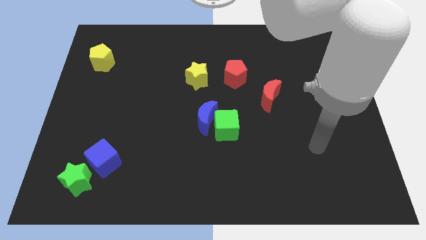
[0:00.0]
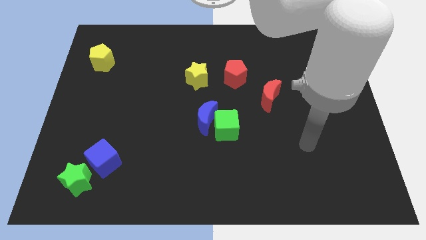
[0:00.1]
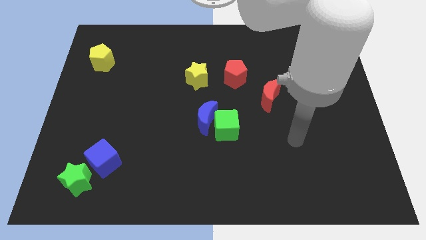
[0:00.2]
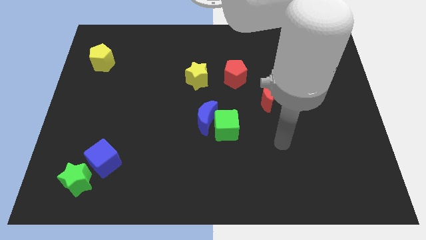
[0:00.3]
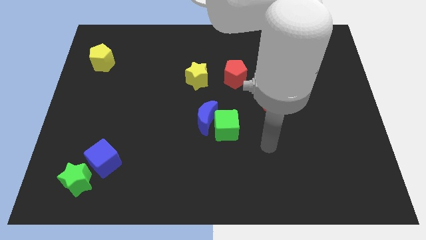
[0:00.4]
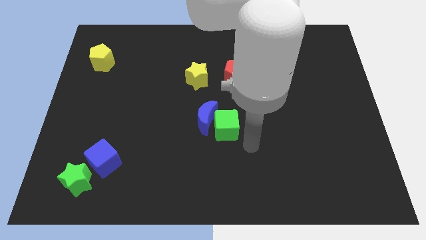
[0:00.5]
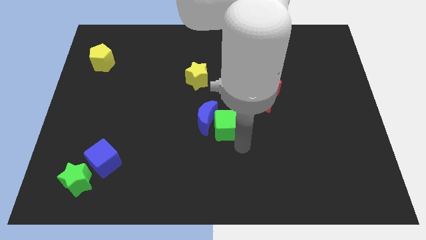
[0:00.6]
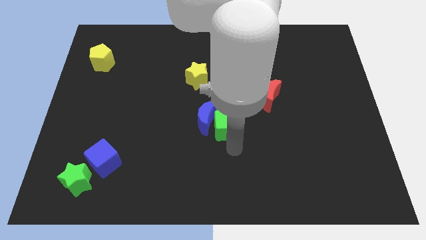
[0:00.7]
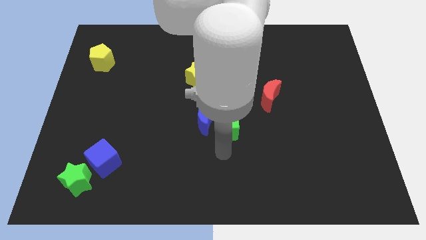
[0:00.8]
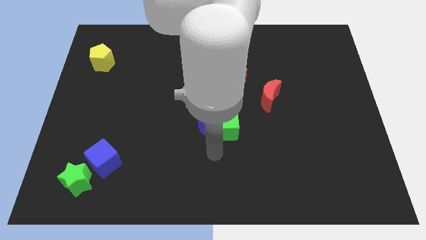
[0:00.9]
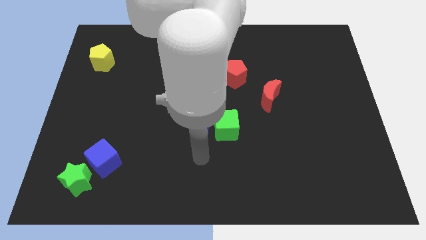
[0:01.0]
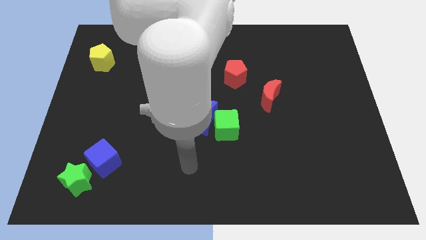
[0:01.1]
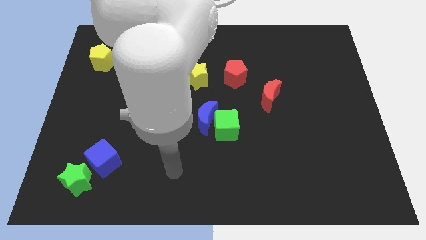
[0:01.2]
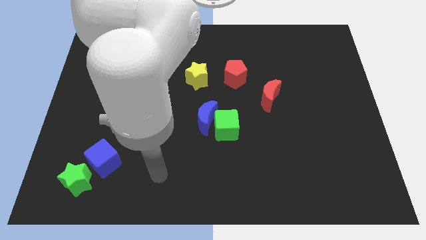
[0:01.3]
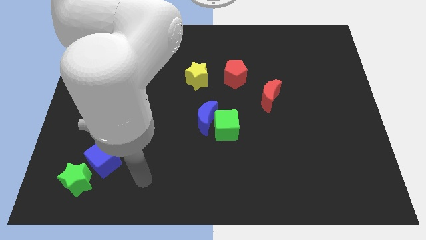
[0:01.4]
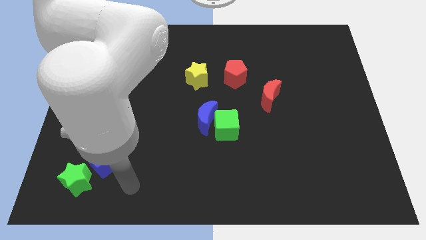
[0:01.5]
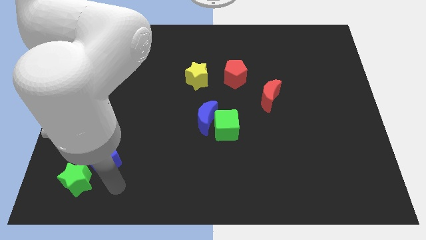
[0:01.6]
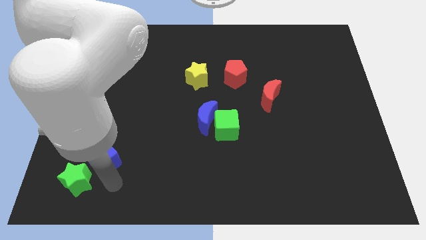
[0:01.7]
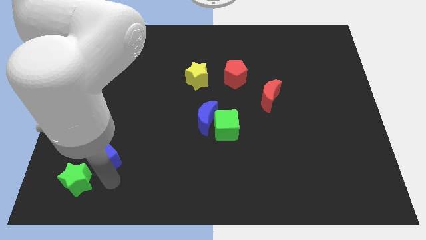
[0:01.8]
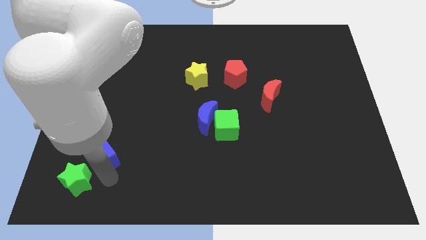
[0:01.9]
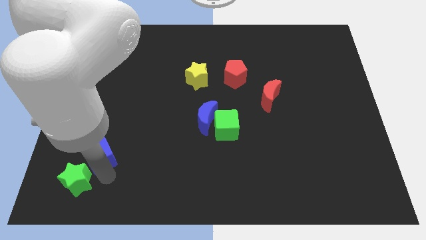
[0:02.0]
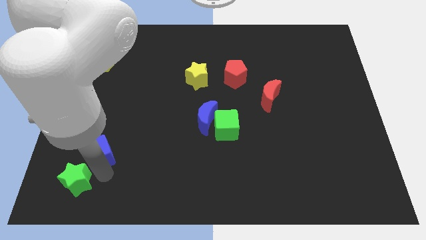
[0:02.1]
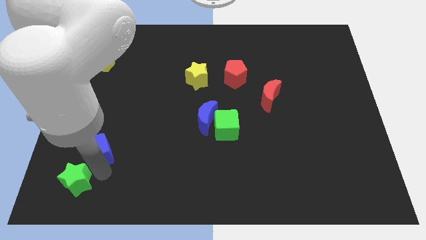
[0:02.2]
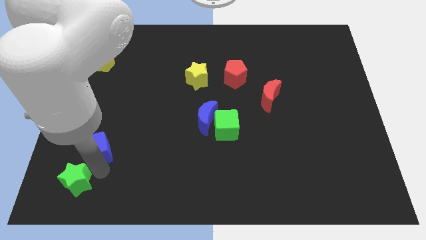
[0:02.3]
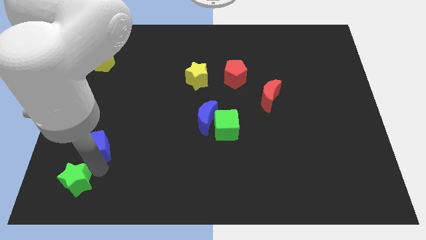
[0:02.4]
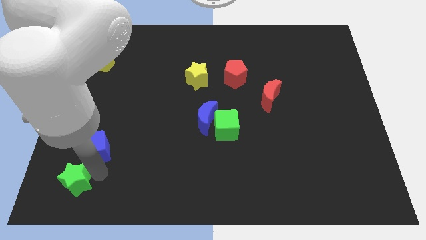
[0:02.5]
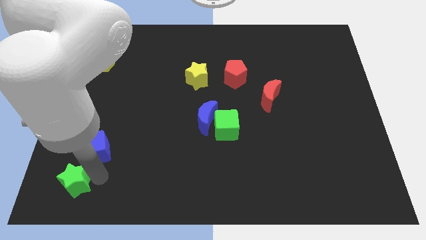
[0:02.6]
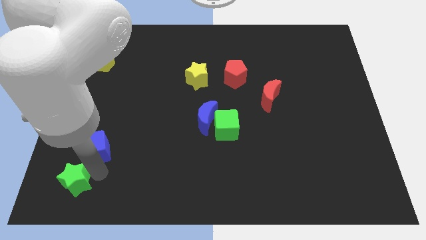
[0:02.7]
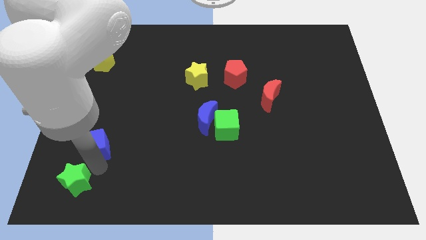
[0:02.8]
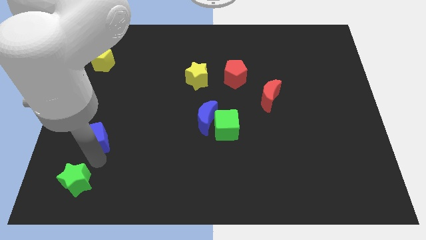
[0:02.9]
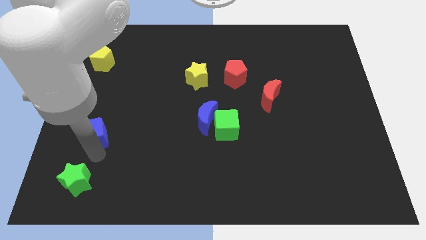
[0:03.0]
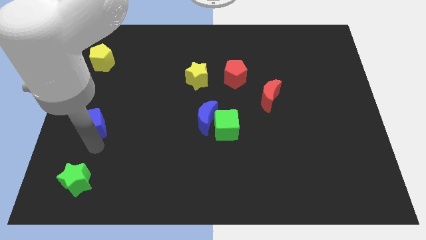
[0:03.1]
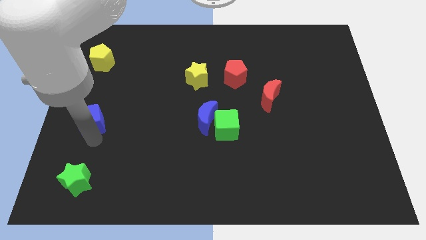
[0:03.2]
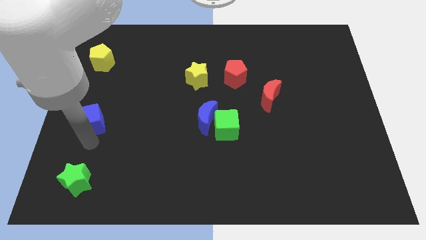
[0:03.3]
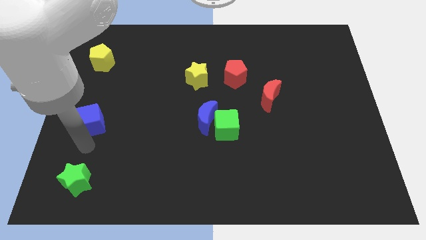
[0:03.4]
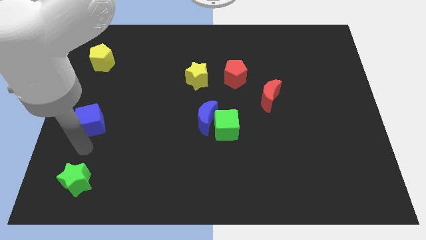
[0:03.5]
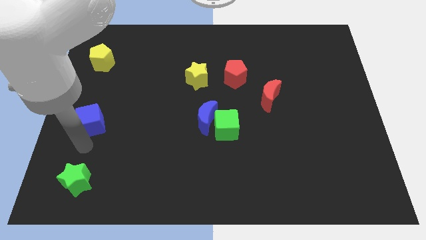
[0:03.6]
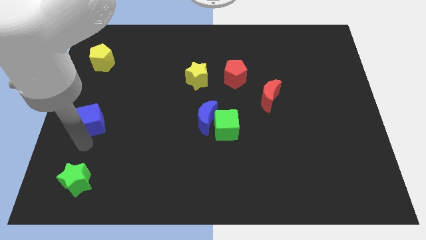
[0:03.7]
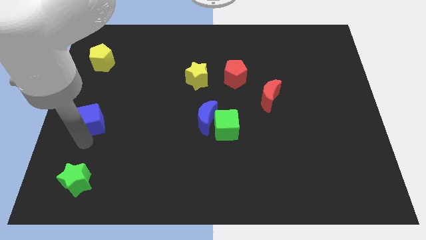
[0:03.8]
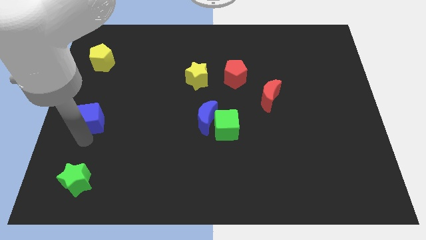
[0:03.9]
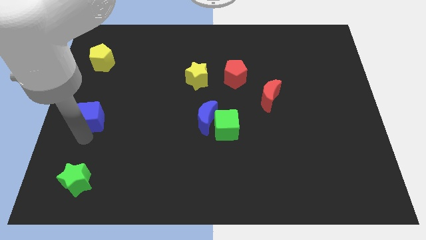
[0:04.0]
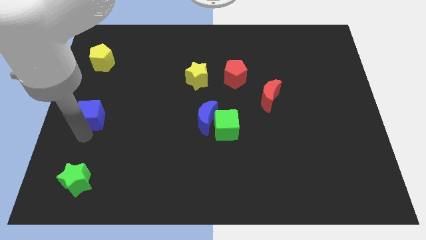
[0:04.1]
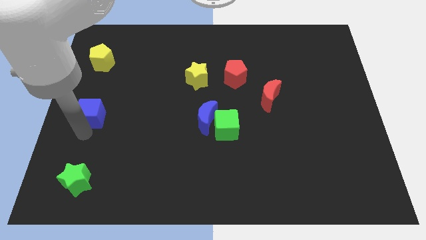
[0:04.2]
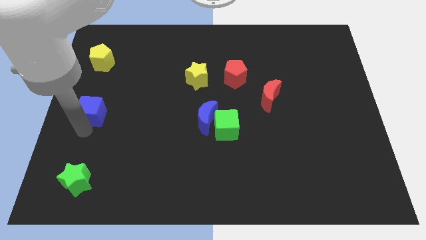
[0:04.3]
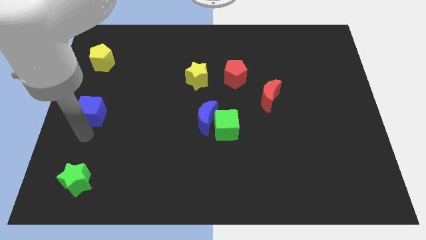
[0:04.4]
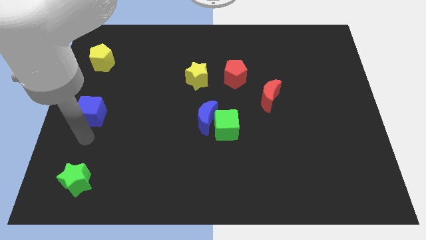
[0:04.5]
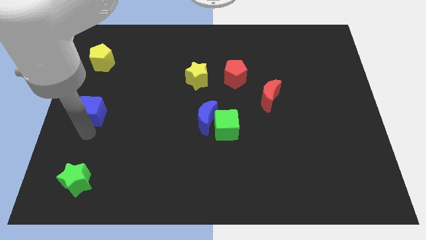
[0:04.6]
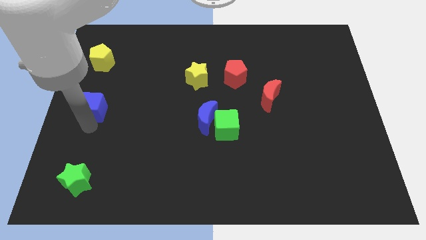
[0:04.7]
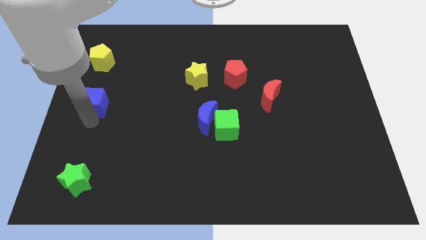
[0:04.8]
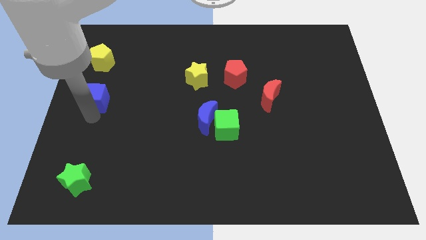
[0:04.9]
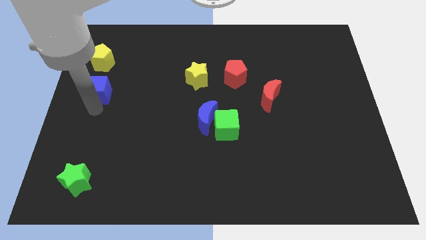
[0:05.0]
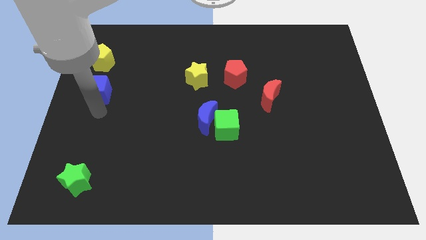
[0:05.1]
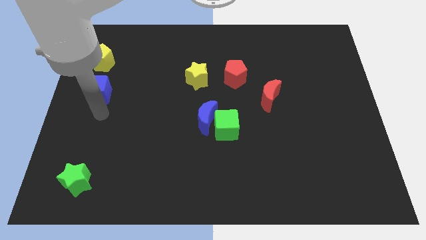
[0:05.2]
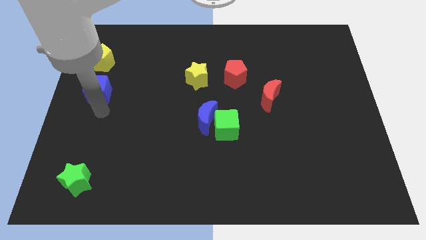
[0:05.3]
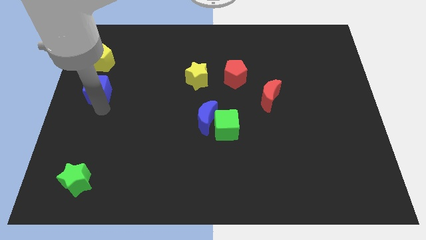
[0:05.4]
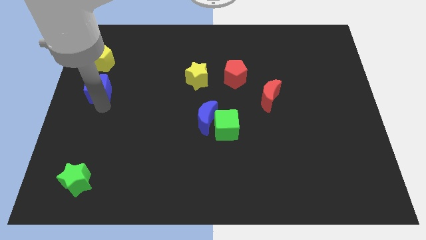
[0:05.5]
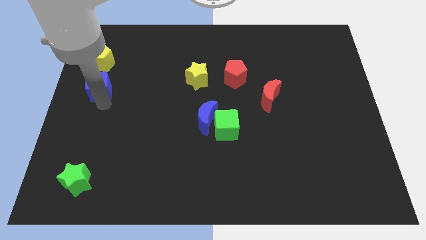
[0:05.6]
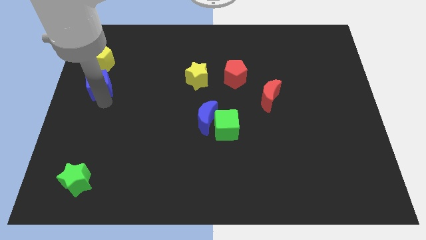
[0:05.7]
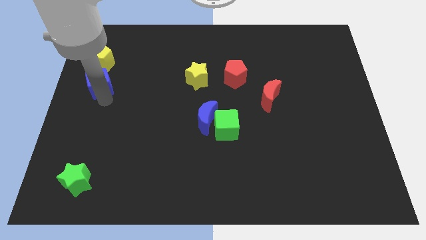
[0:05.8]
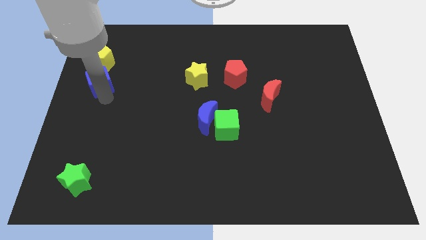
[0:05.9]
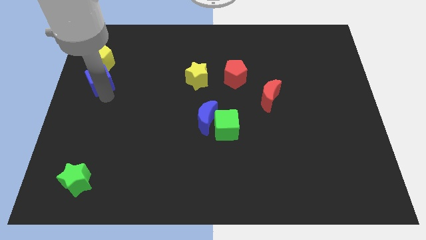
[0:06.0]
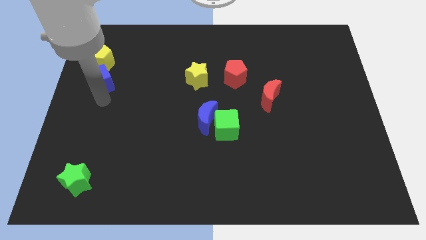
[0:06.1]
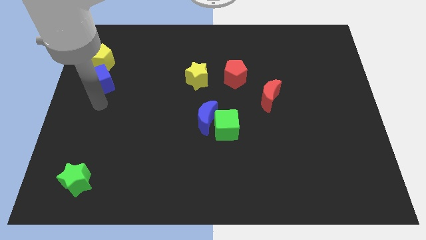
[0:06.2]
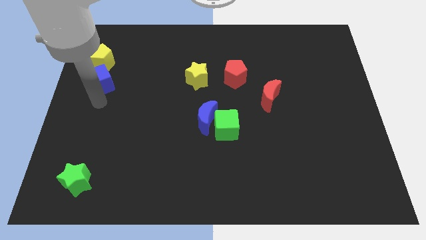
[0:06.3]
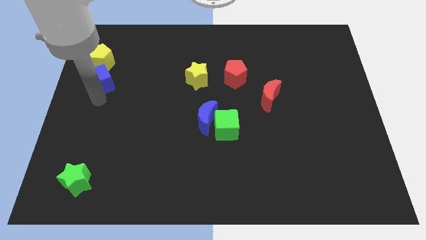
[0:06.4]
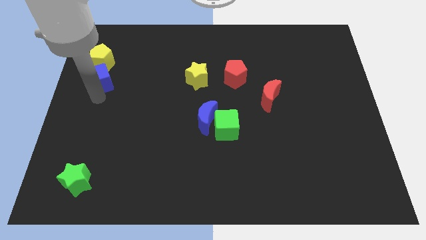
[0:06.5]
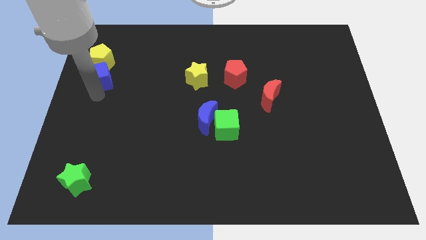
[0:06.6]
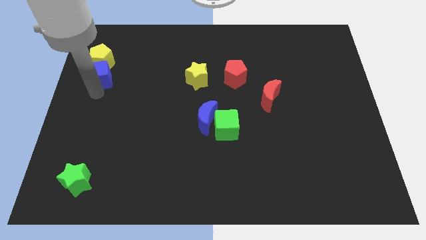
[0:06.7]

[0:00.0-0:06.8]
move the blue cube close to the yellow pentagon

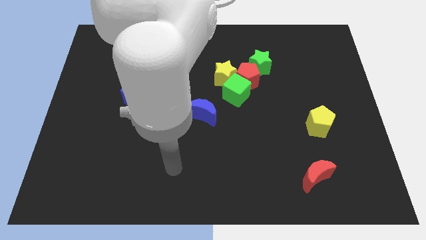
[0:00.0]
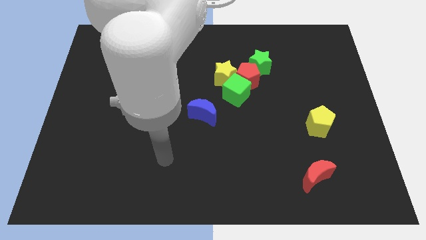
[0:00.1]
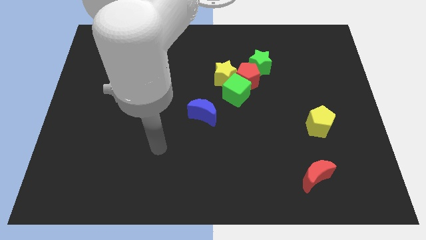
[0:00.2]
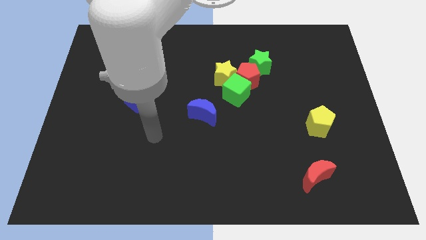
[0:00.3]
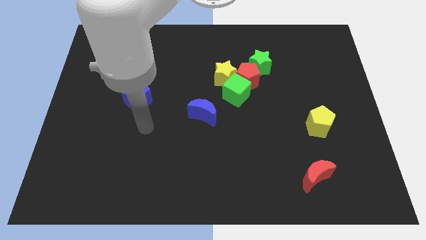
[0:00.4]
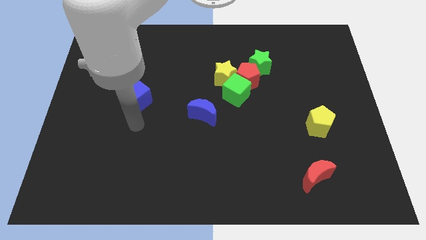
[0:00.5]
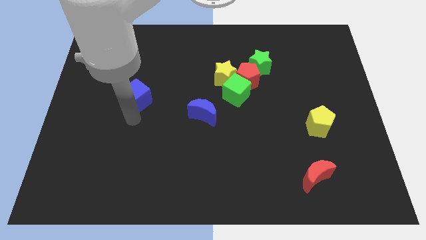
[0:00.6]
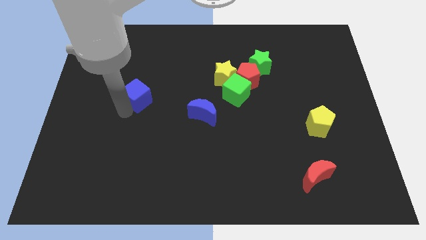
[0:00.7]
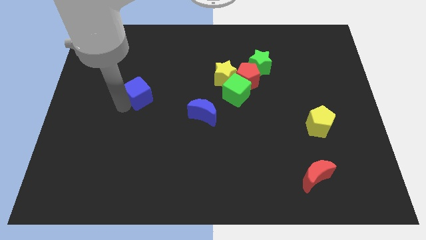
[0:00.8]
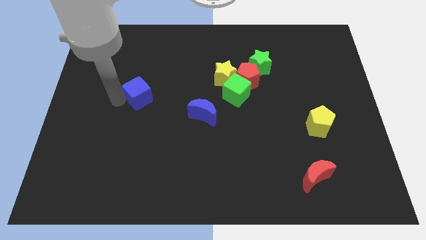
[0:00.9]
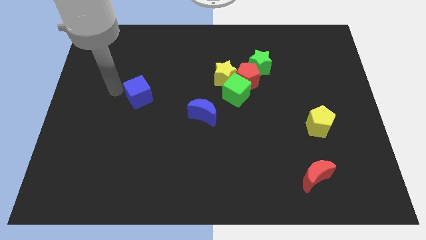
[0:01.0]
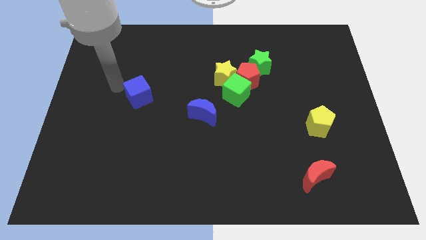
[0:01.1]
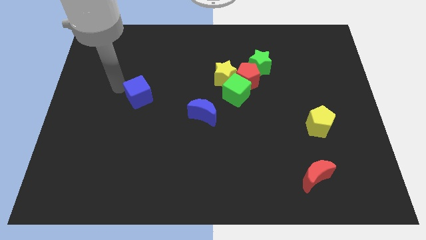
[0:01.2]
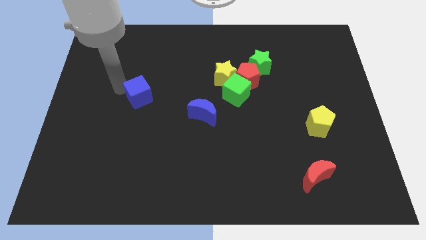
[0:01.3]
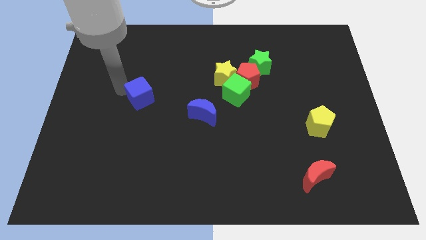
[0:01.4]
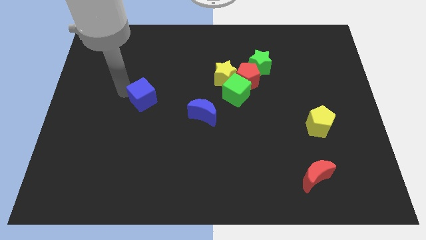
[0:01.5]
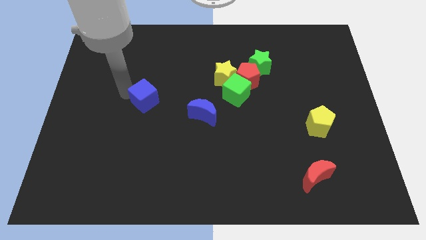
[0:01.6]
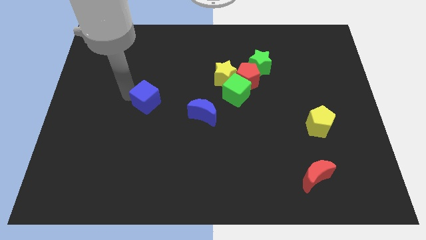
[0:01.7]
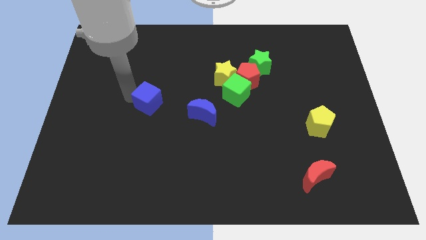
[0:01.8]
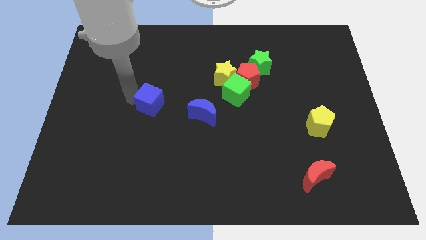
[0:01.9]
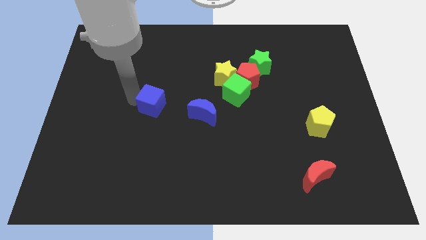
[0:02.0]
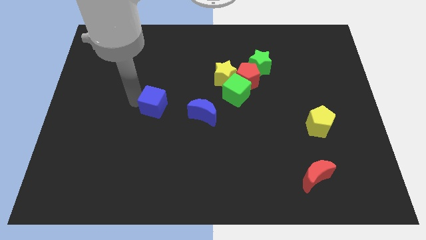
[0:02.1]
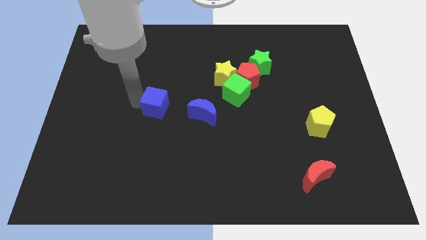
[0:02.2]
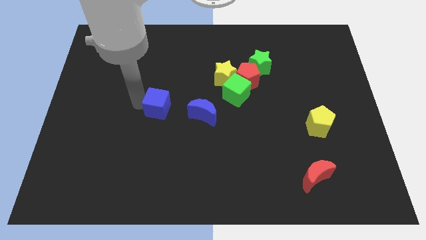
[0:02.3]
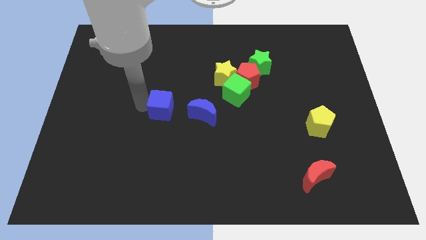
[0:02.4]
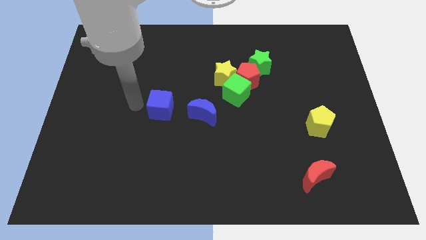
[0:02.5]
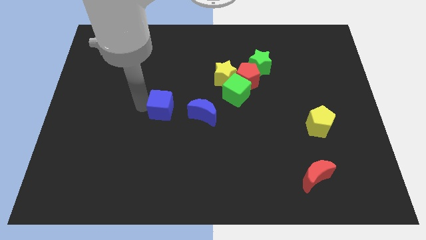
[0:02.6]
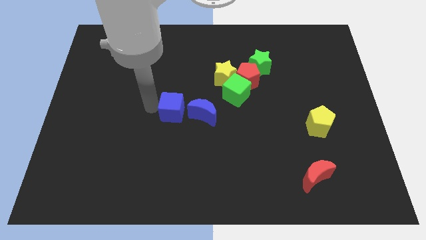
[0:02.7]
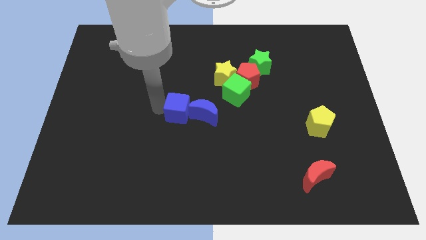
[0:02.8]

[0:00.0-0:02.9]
slide the blue cube towards the blue moon
